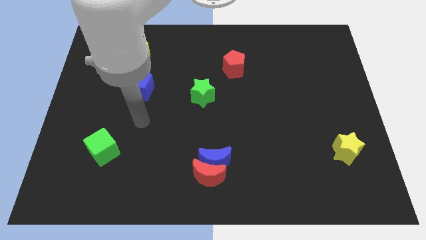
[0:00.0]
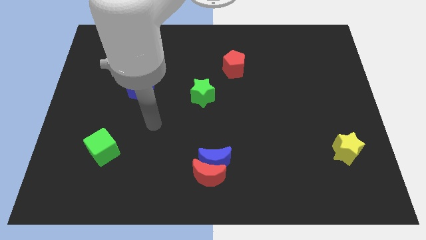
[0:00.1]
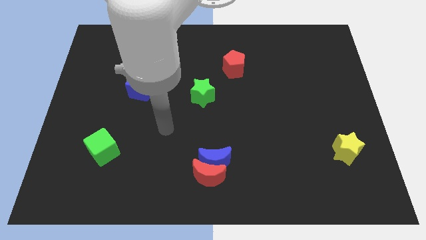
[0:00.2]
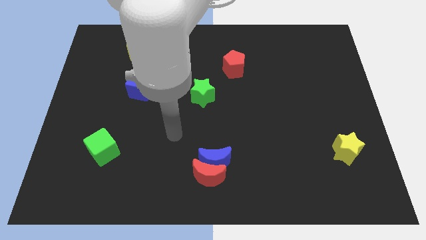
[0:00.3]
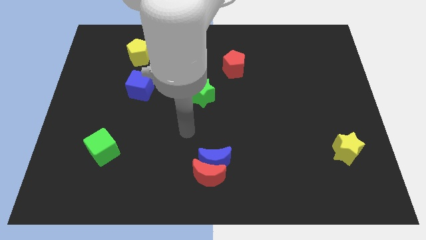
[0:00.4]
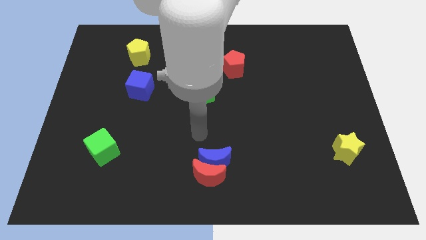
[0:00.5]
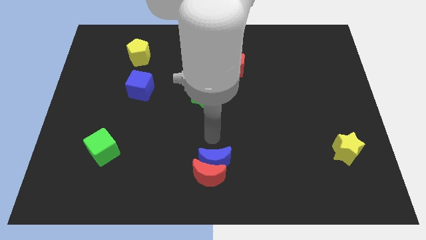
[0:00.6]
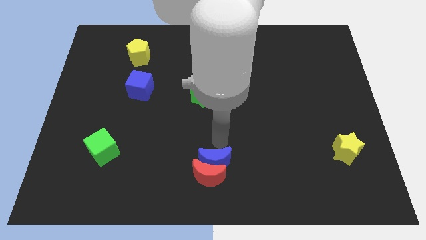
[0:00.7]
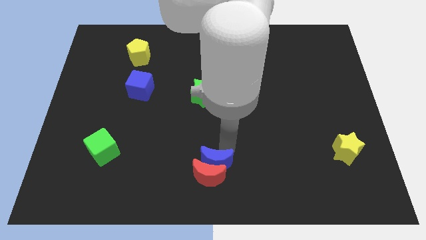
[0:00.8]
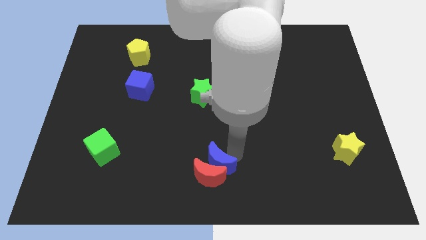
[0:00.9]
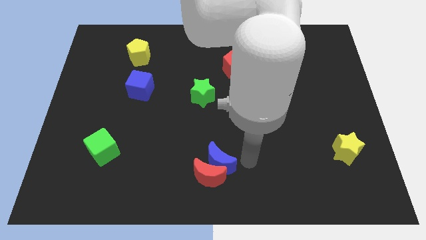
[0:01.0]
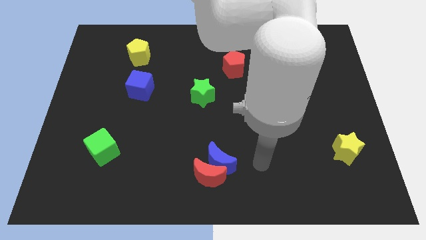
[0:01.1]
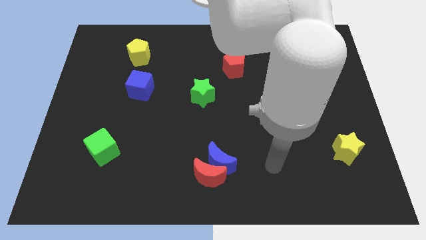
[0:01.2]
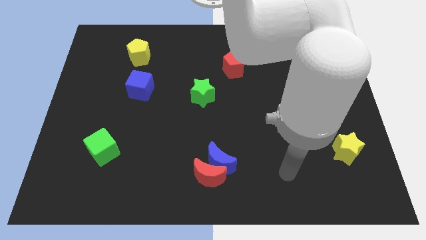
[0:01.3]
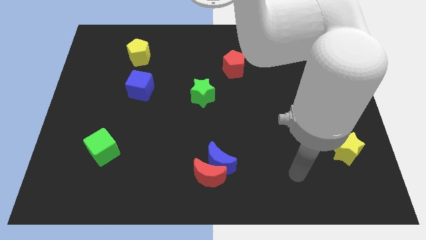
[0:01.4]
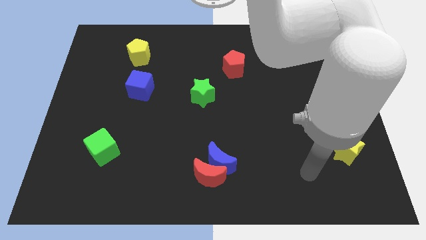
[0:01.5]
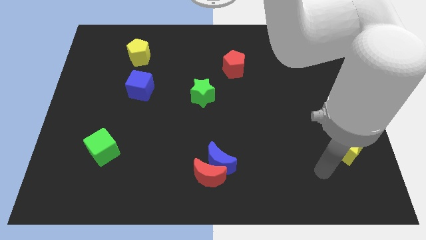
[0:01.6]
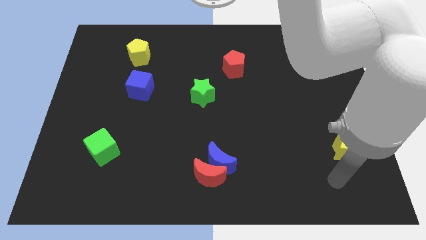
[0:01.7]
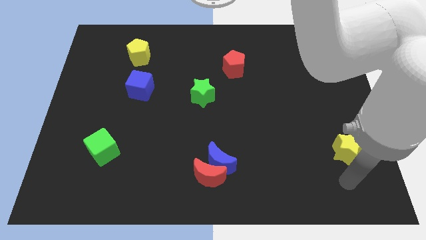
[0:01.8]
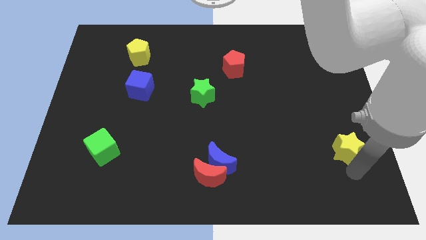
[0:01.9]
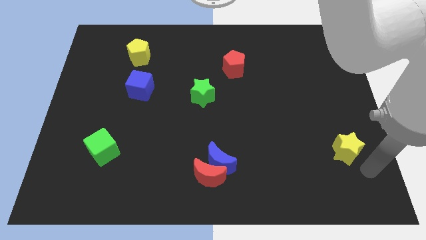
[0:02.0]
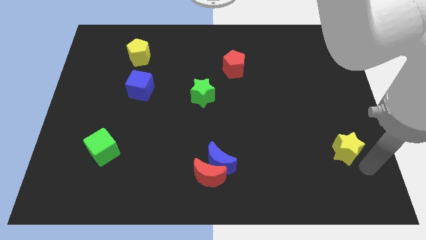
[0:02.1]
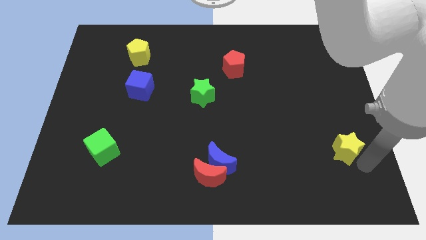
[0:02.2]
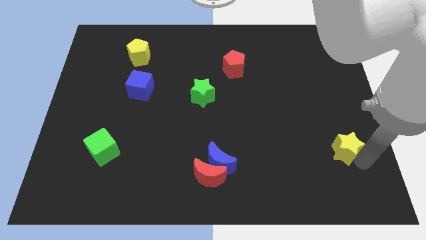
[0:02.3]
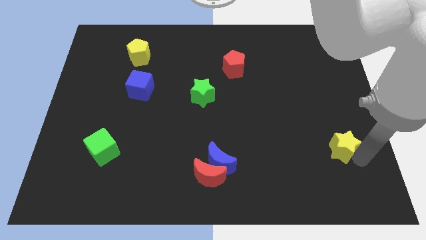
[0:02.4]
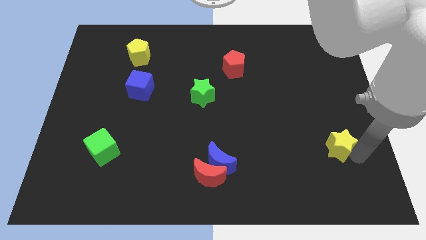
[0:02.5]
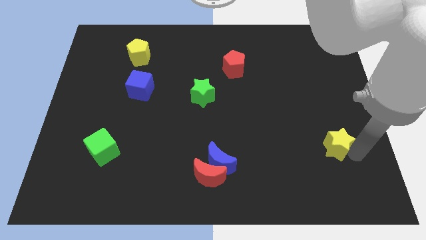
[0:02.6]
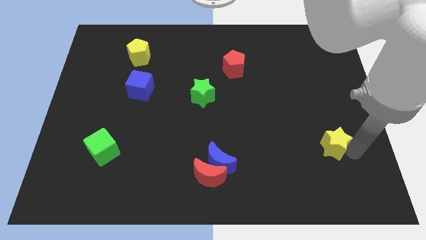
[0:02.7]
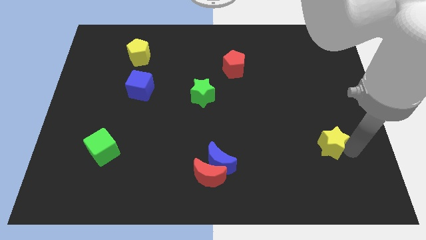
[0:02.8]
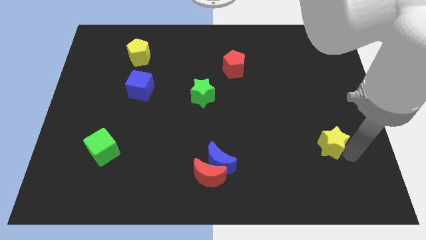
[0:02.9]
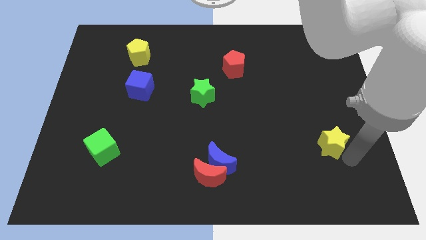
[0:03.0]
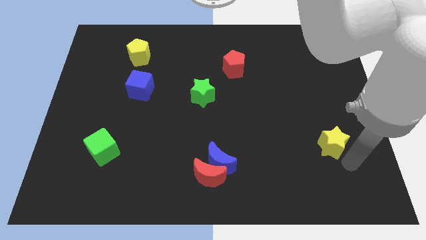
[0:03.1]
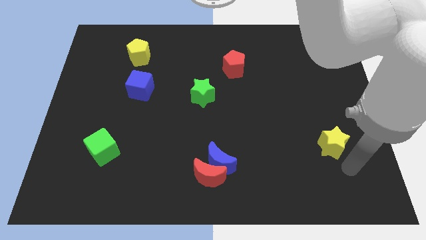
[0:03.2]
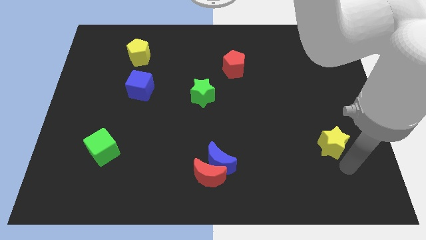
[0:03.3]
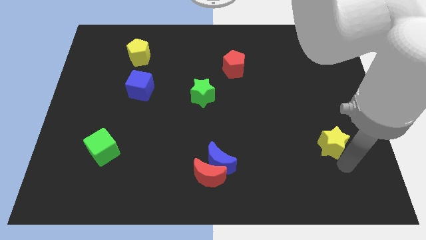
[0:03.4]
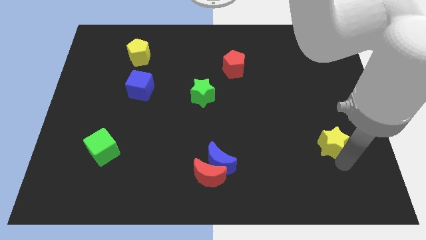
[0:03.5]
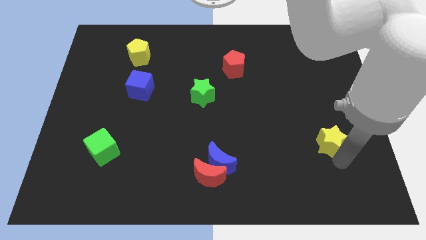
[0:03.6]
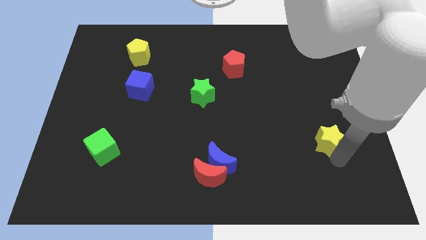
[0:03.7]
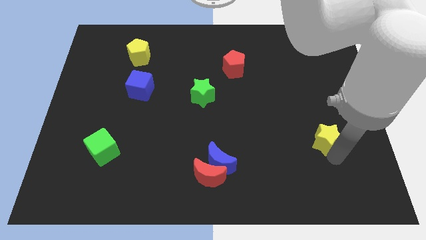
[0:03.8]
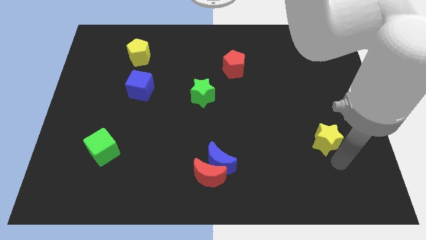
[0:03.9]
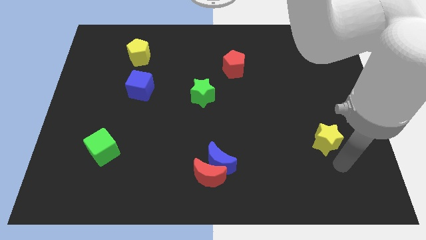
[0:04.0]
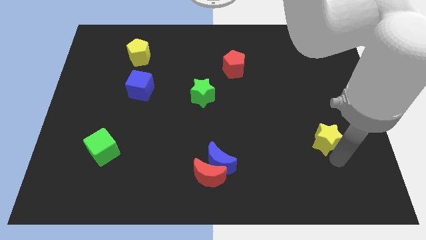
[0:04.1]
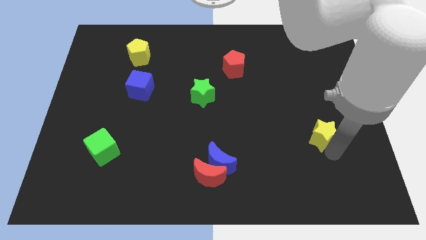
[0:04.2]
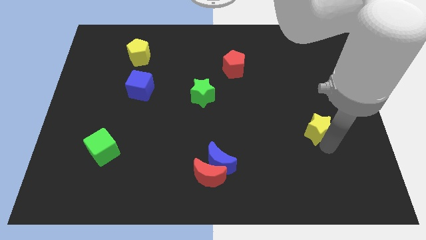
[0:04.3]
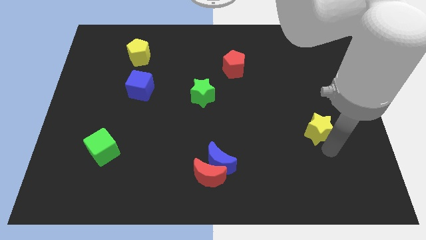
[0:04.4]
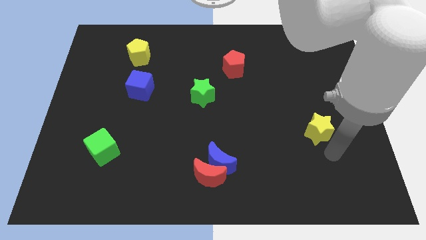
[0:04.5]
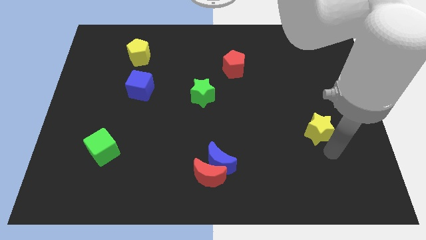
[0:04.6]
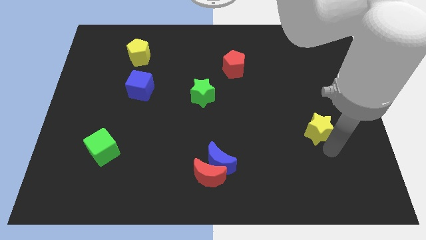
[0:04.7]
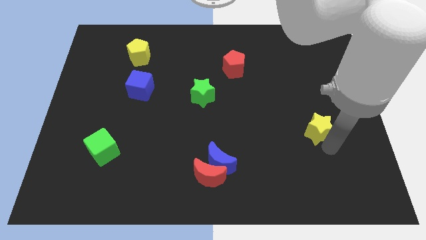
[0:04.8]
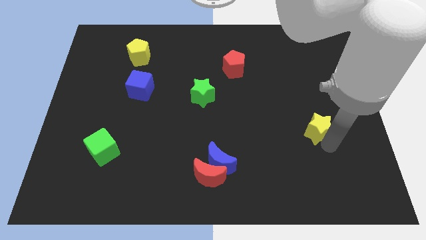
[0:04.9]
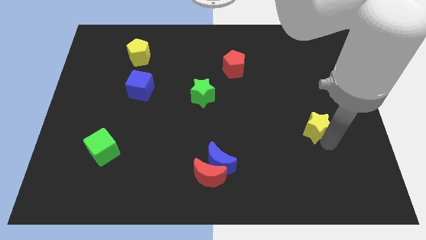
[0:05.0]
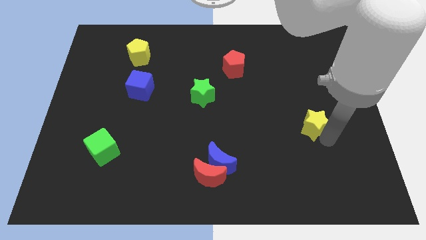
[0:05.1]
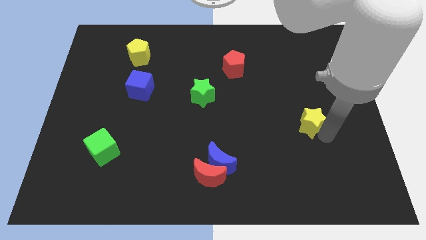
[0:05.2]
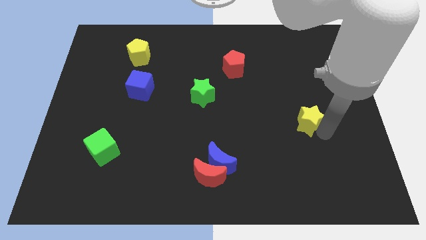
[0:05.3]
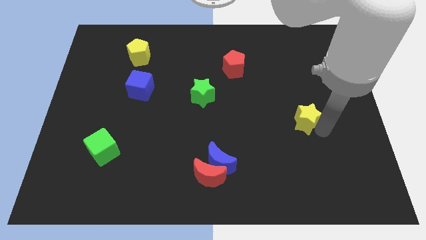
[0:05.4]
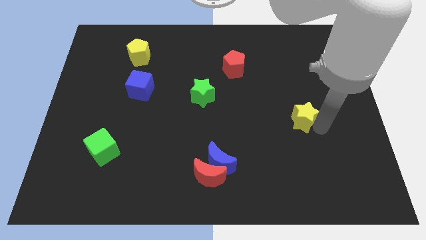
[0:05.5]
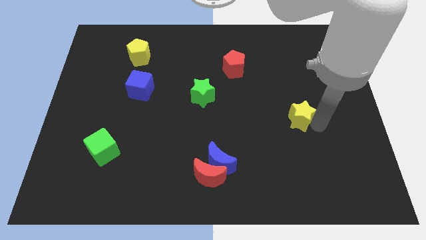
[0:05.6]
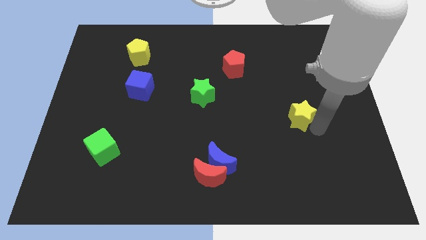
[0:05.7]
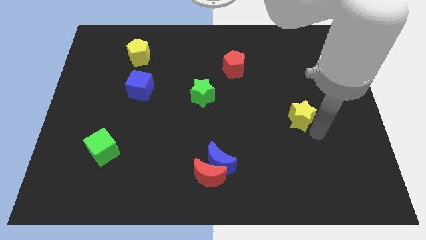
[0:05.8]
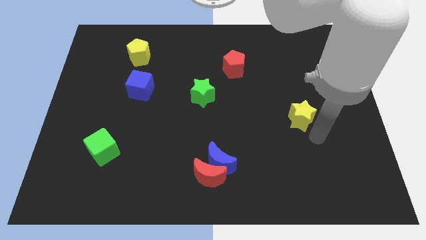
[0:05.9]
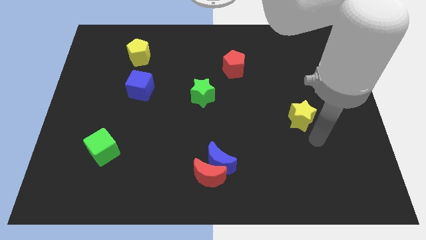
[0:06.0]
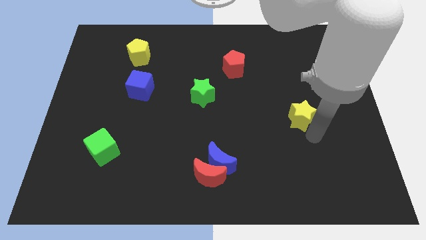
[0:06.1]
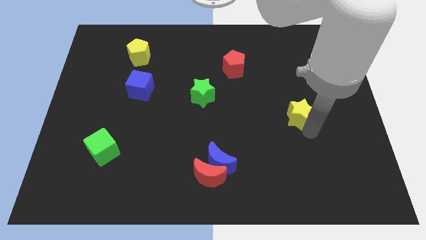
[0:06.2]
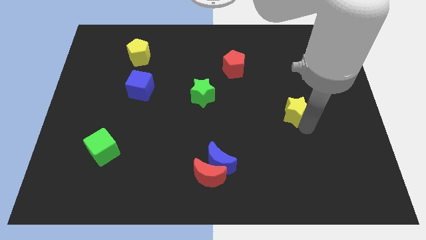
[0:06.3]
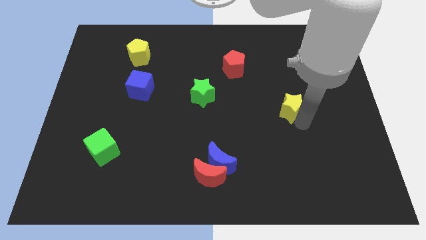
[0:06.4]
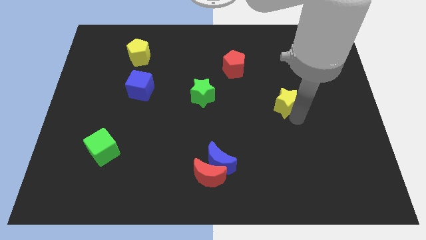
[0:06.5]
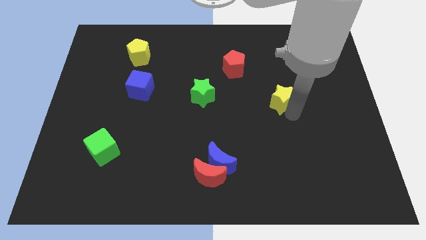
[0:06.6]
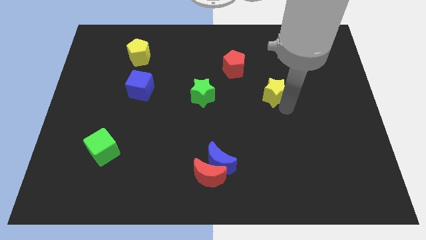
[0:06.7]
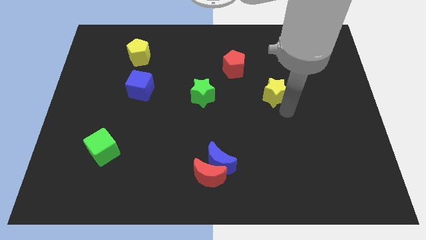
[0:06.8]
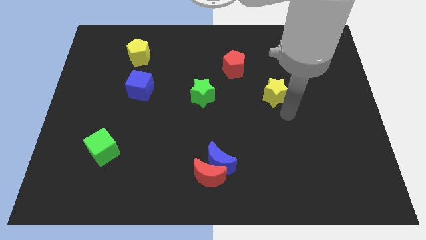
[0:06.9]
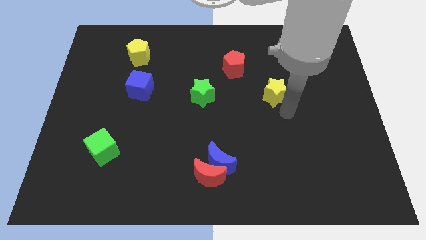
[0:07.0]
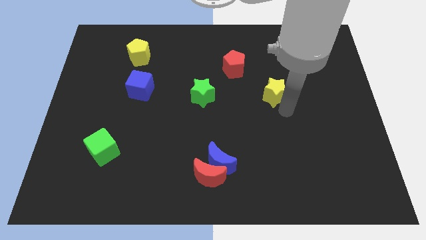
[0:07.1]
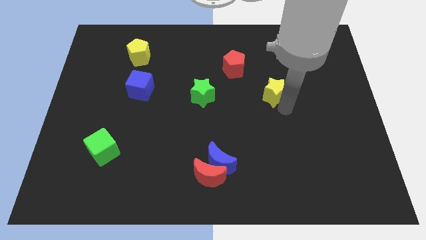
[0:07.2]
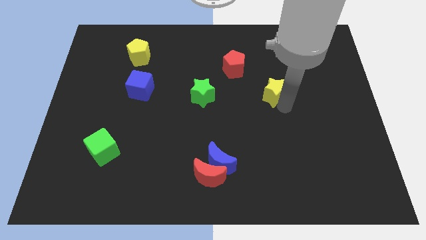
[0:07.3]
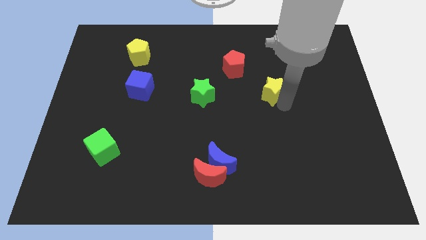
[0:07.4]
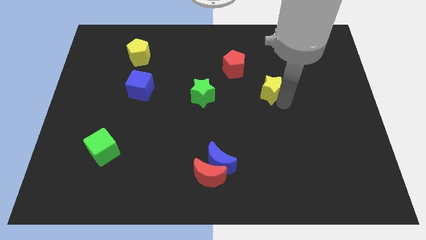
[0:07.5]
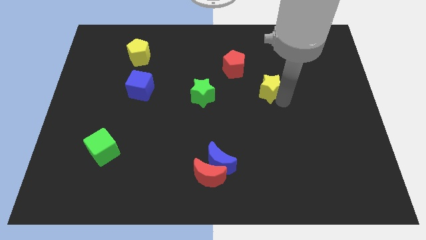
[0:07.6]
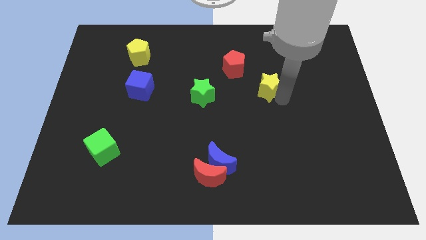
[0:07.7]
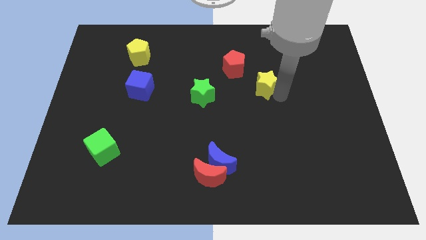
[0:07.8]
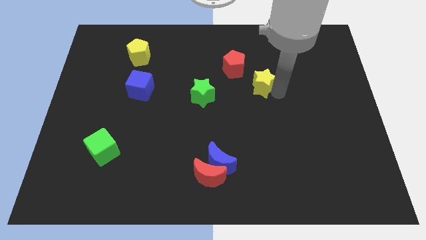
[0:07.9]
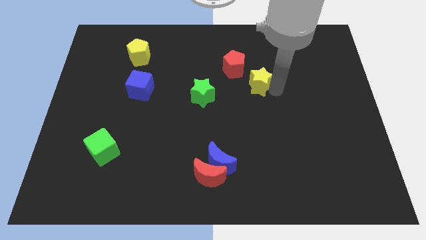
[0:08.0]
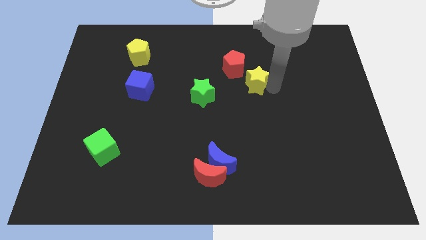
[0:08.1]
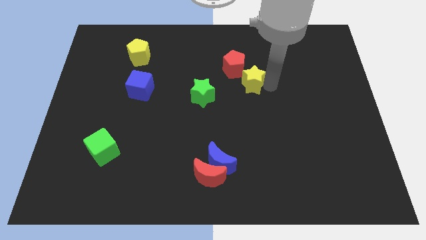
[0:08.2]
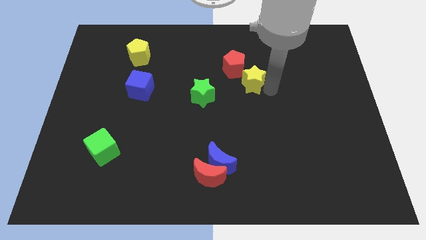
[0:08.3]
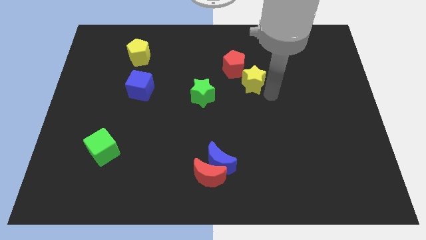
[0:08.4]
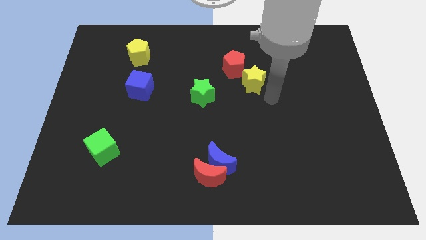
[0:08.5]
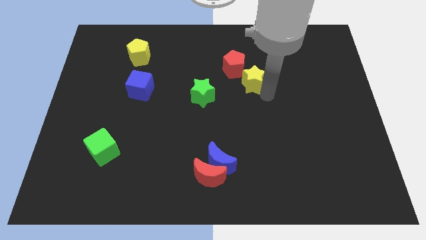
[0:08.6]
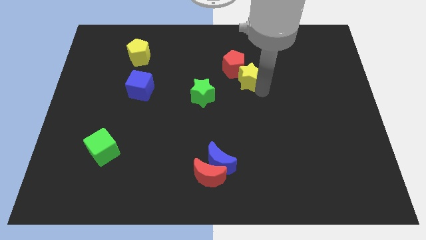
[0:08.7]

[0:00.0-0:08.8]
push the yellow star towards the red pentagon
